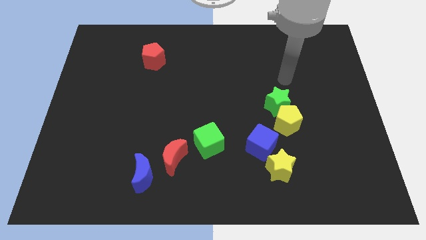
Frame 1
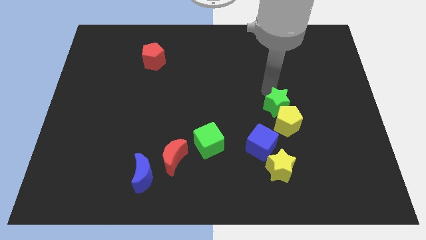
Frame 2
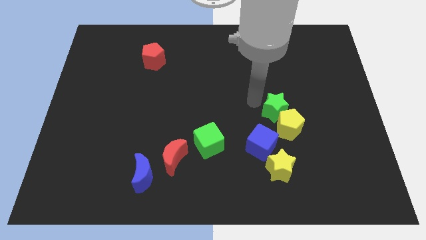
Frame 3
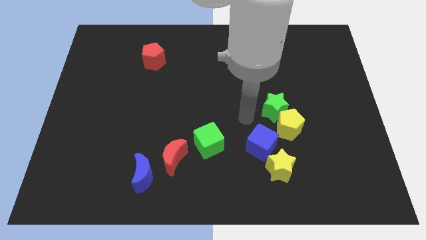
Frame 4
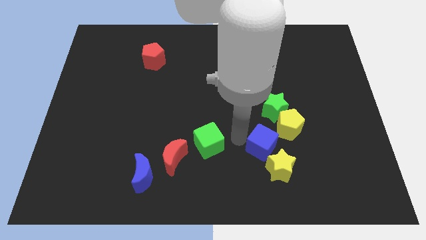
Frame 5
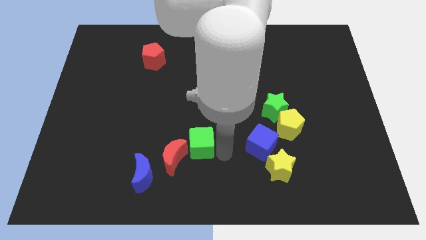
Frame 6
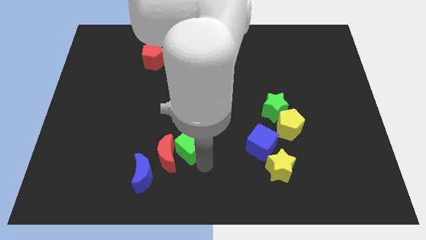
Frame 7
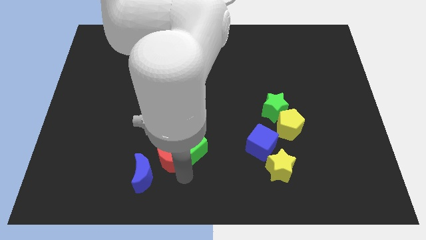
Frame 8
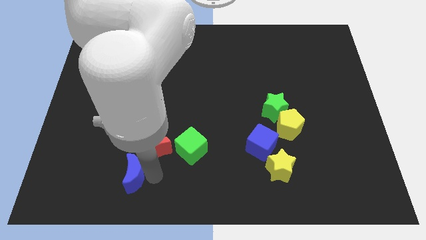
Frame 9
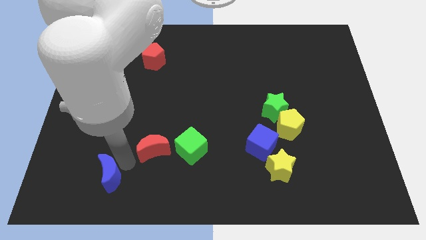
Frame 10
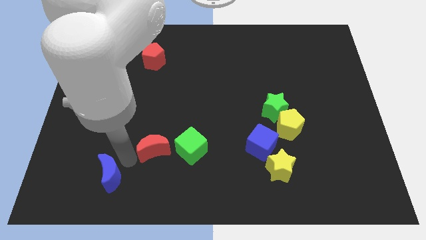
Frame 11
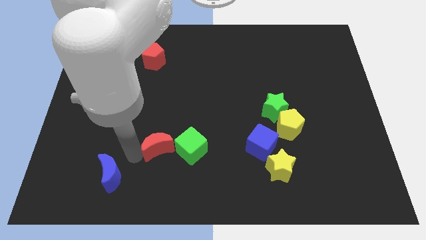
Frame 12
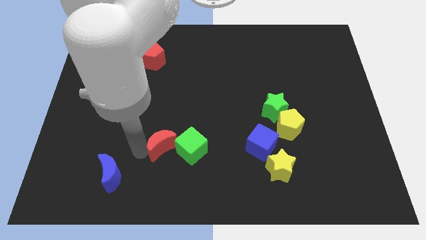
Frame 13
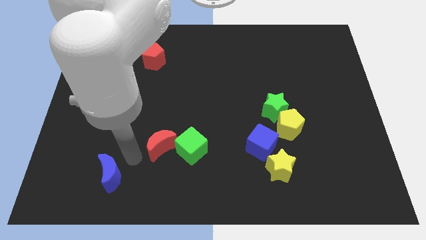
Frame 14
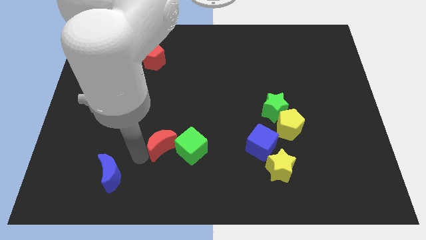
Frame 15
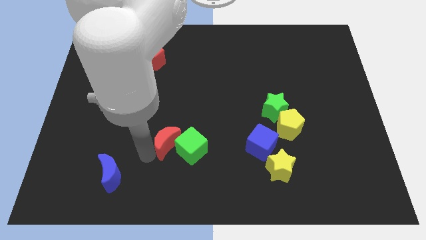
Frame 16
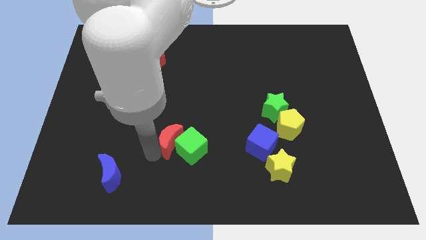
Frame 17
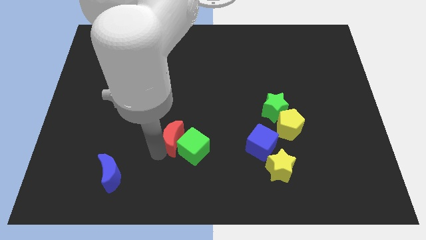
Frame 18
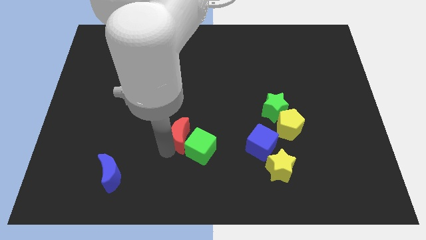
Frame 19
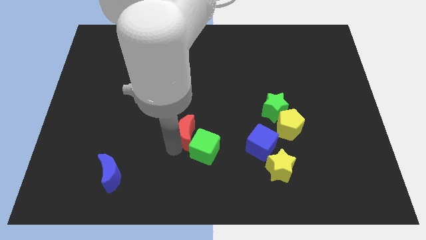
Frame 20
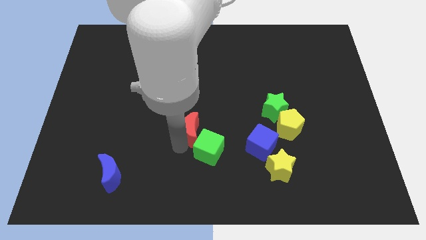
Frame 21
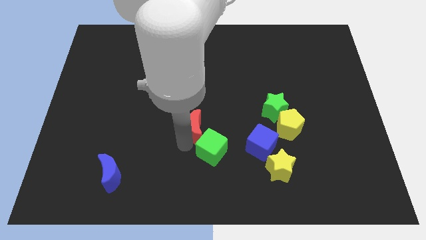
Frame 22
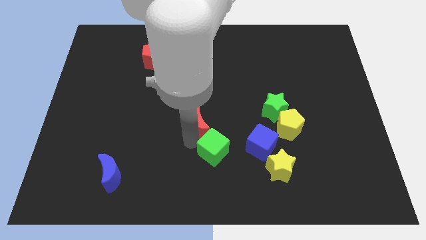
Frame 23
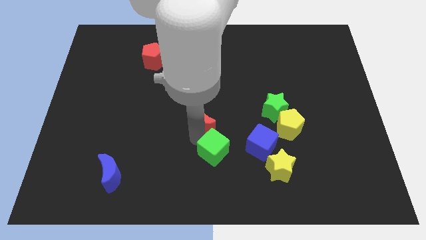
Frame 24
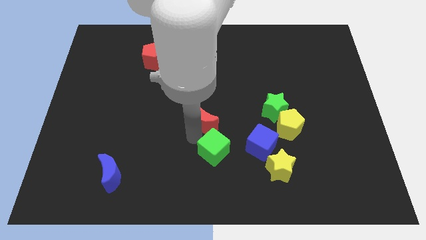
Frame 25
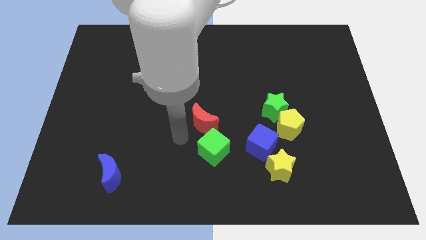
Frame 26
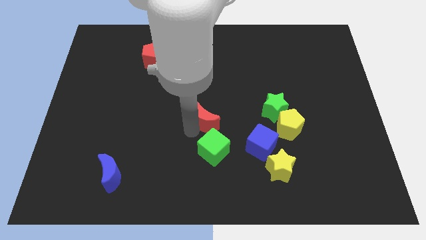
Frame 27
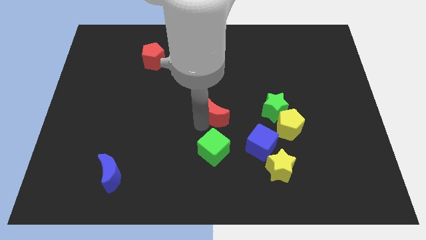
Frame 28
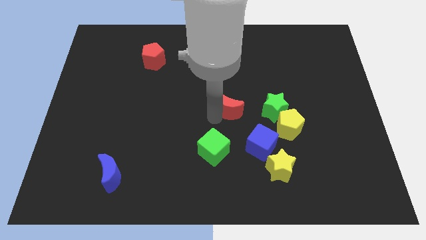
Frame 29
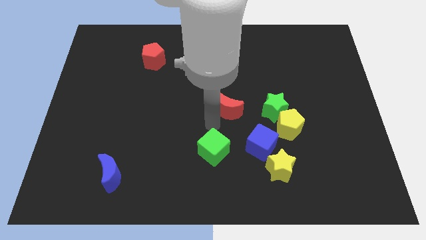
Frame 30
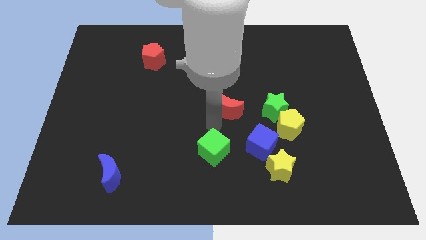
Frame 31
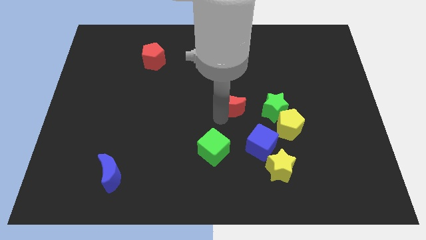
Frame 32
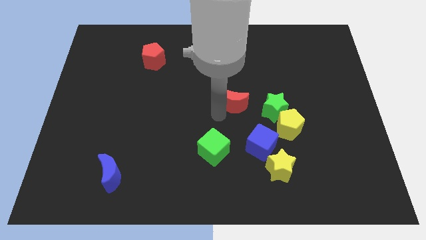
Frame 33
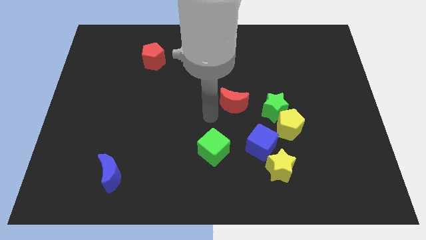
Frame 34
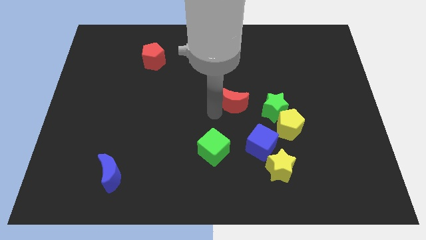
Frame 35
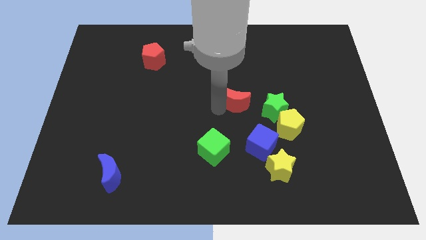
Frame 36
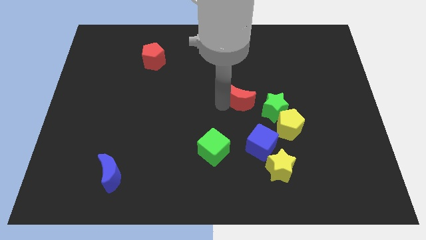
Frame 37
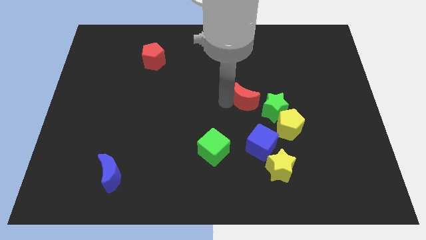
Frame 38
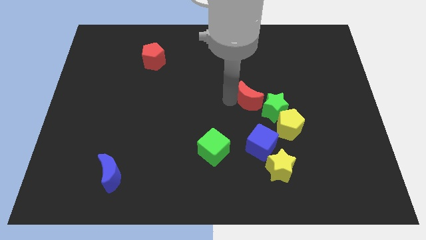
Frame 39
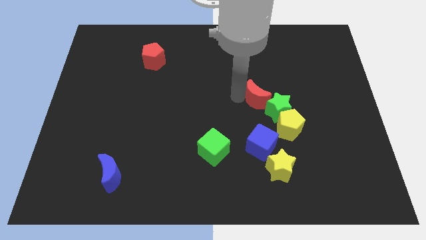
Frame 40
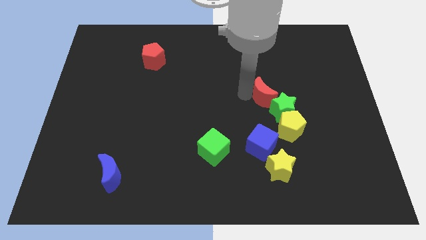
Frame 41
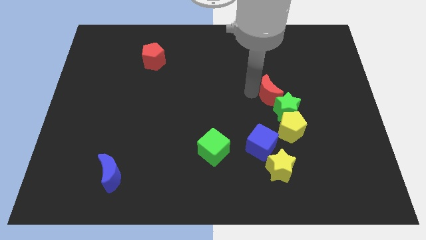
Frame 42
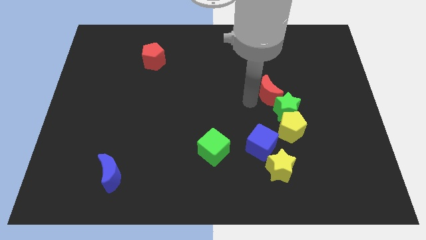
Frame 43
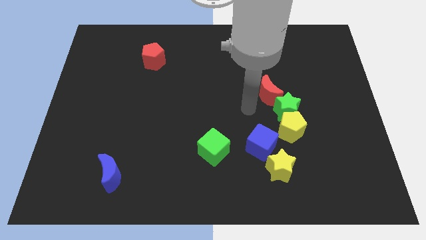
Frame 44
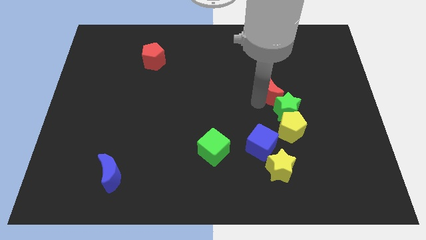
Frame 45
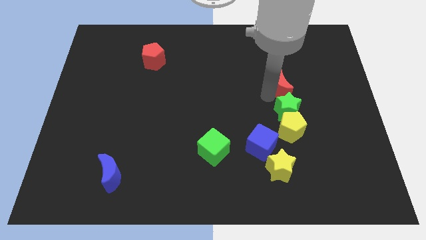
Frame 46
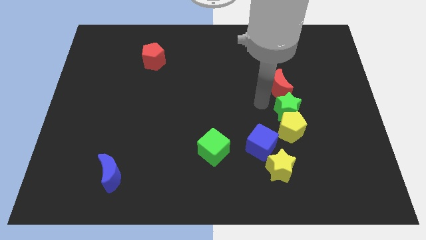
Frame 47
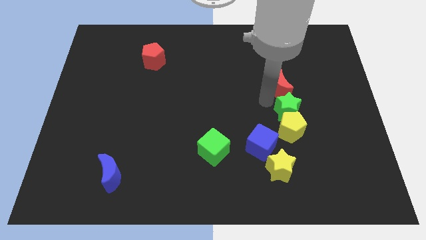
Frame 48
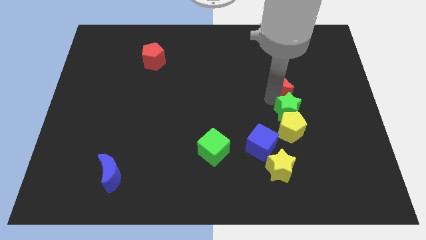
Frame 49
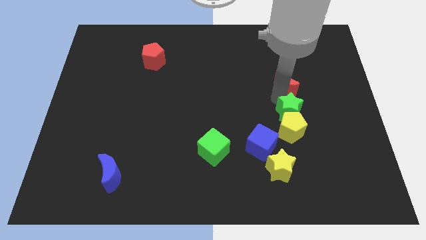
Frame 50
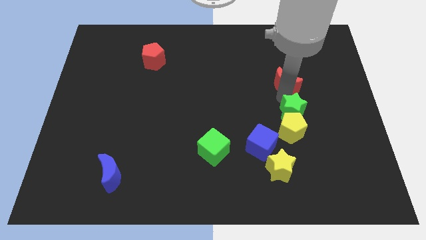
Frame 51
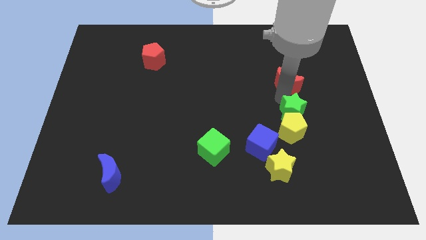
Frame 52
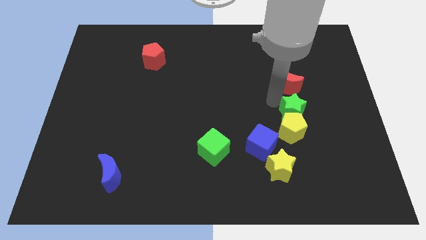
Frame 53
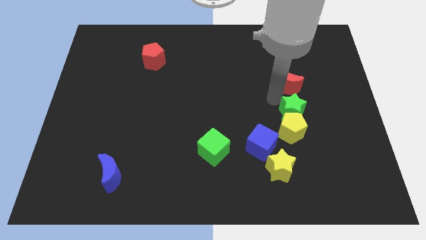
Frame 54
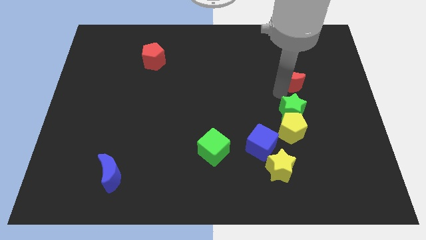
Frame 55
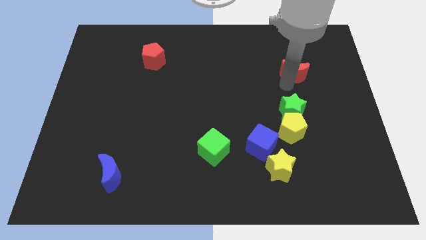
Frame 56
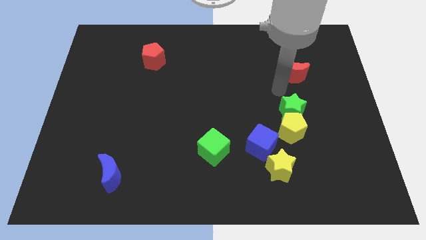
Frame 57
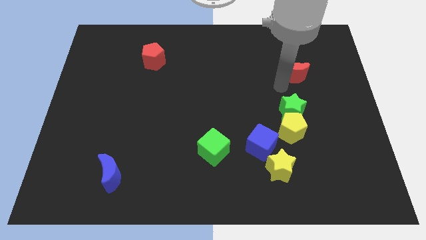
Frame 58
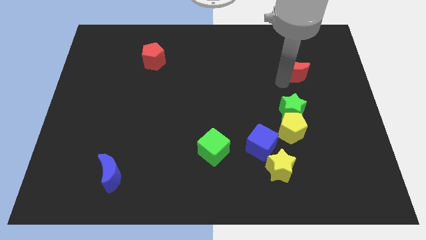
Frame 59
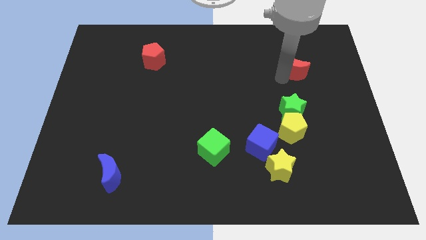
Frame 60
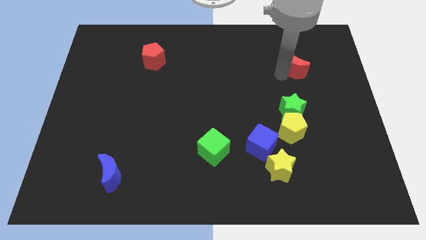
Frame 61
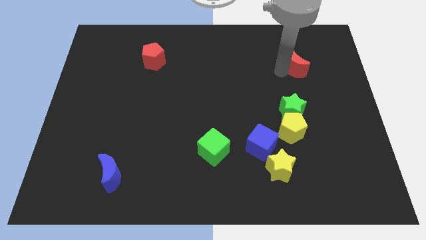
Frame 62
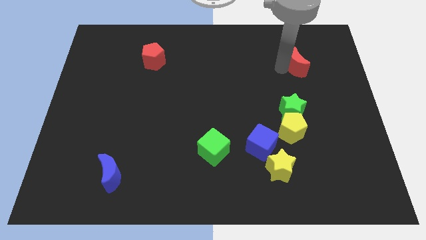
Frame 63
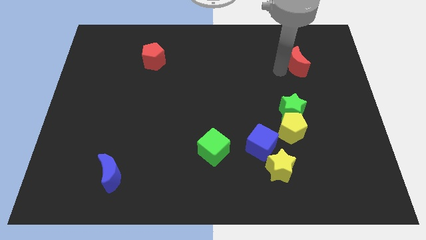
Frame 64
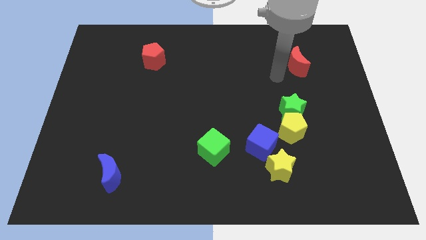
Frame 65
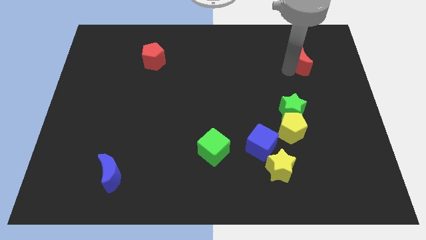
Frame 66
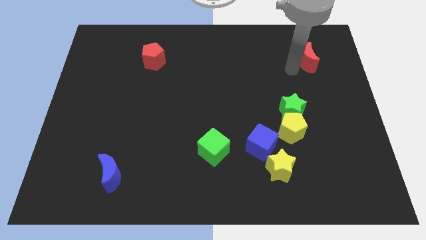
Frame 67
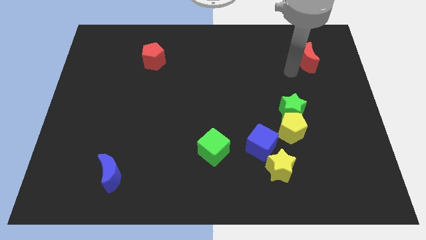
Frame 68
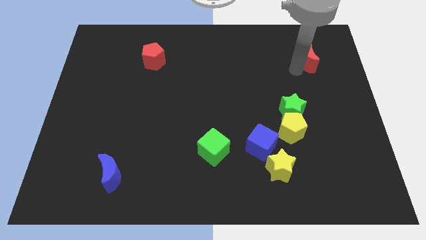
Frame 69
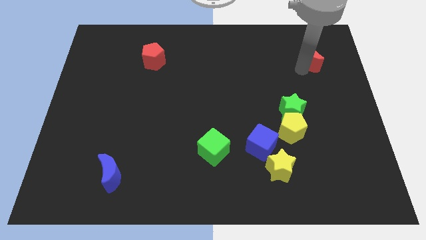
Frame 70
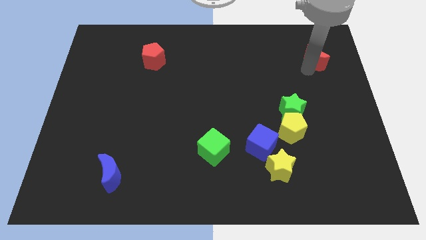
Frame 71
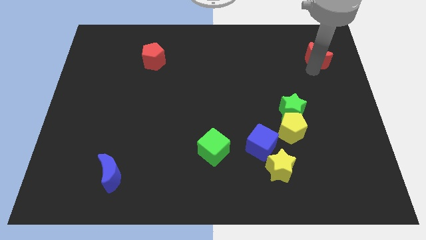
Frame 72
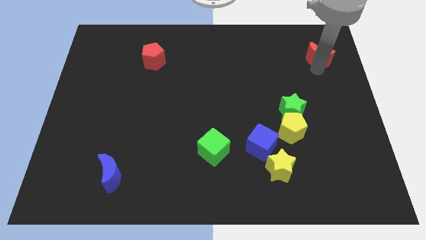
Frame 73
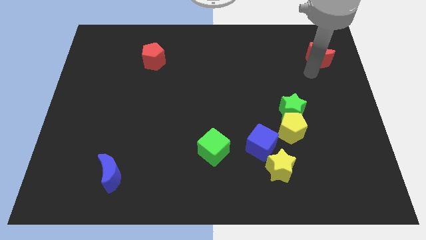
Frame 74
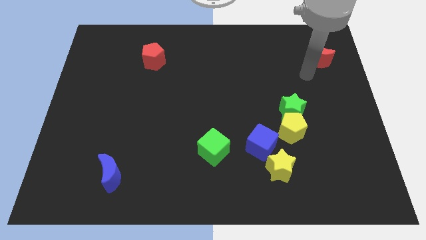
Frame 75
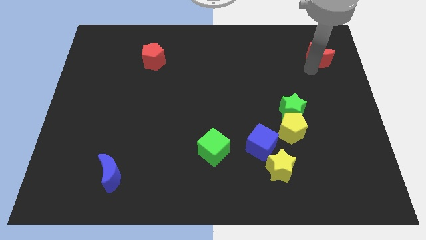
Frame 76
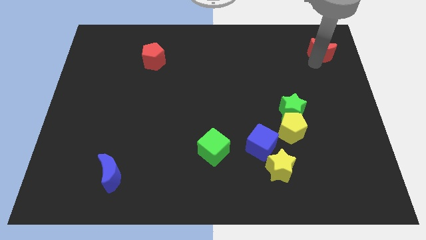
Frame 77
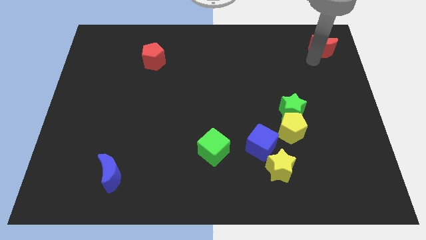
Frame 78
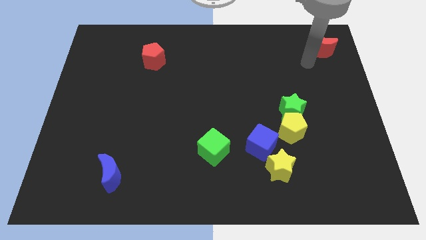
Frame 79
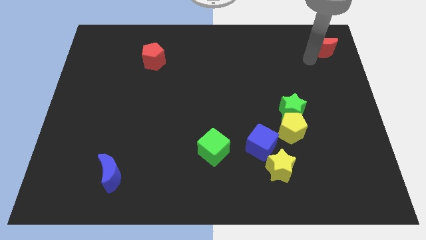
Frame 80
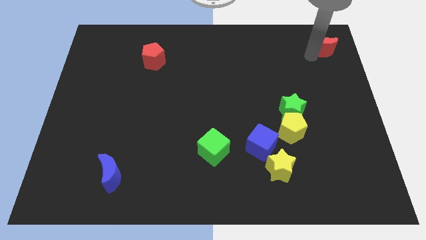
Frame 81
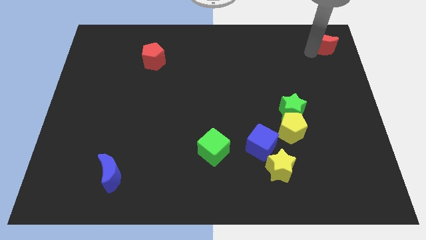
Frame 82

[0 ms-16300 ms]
push the red moon to the upper right corner
